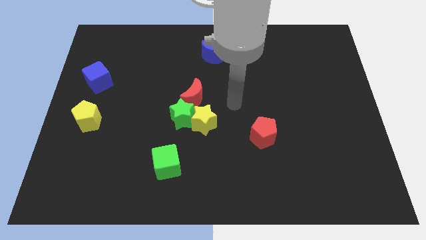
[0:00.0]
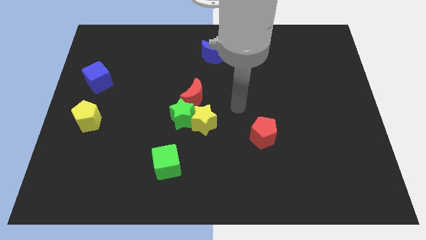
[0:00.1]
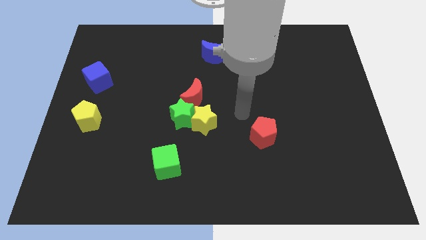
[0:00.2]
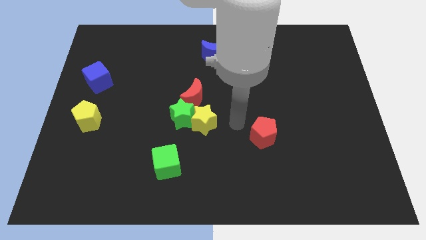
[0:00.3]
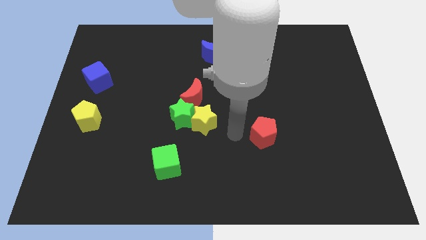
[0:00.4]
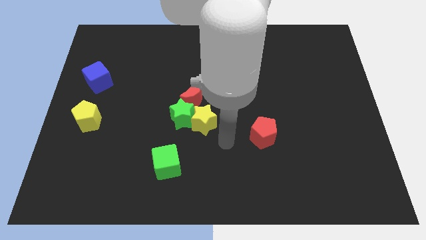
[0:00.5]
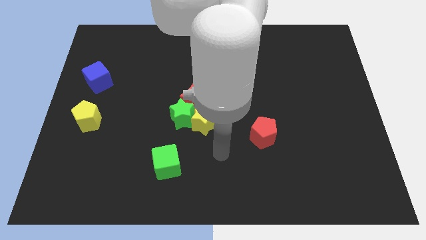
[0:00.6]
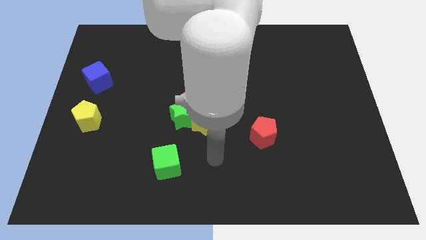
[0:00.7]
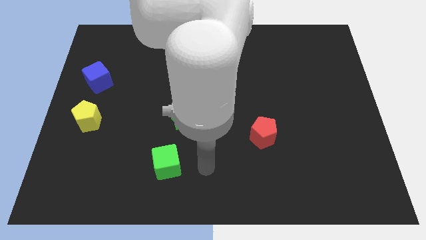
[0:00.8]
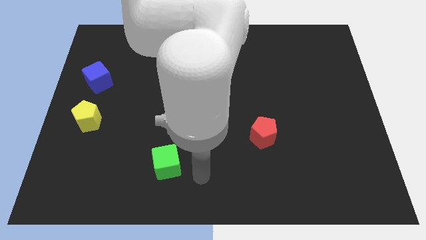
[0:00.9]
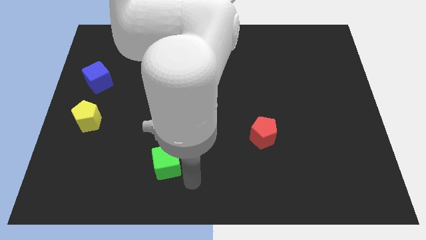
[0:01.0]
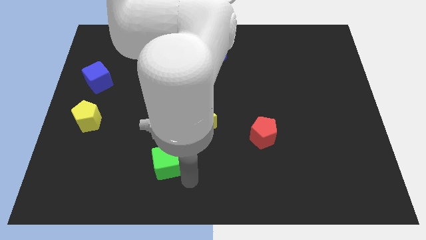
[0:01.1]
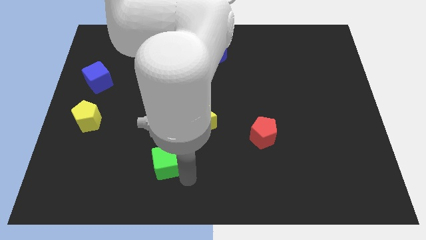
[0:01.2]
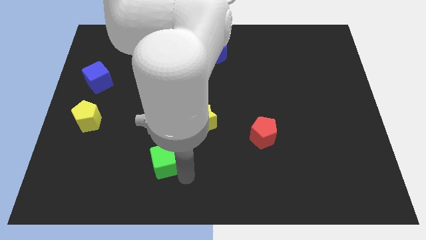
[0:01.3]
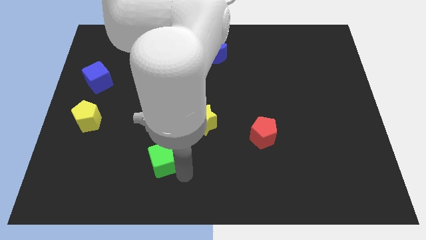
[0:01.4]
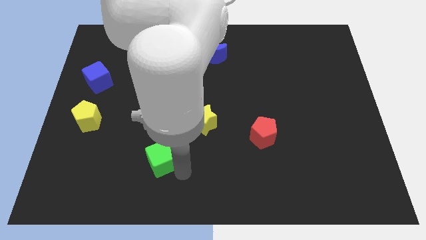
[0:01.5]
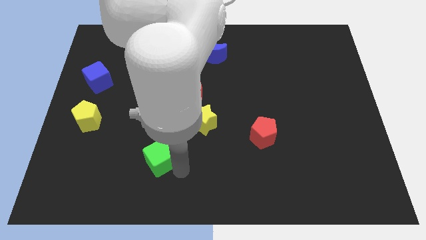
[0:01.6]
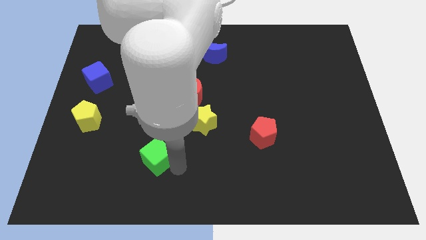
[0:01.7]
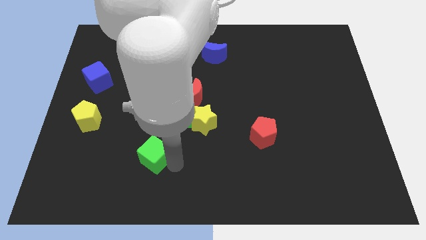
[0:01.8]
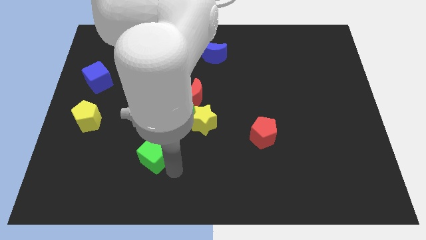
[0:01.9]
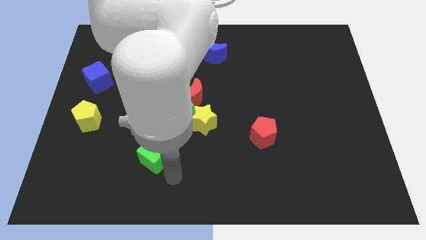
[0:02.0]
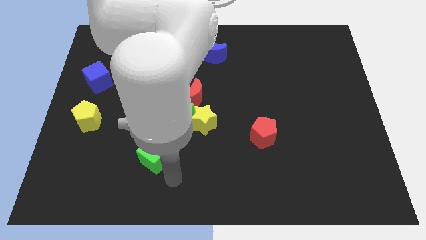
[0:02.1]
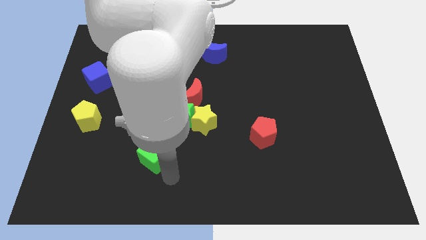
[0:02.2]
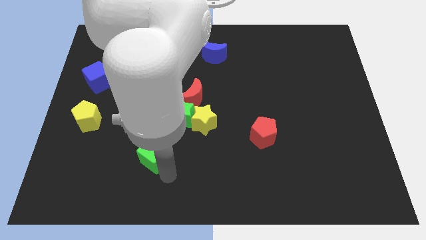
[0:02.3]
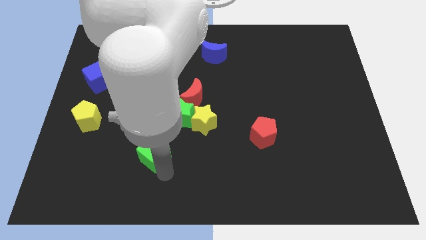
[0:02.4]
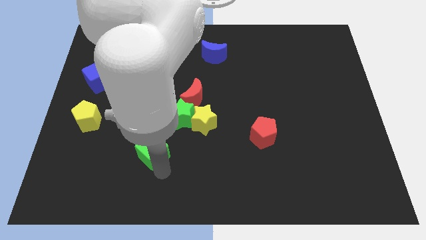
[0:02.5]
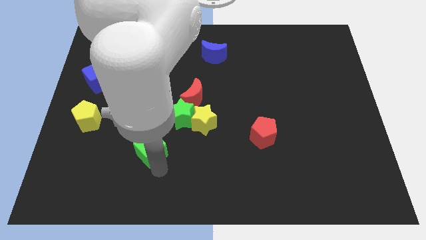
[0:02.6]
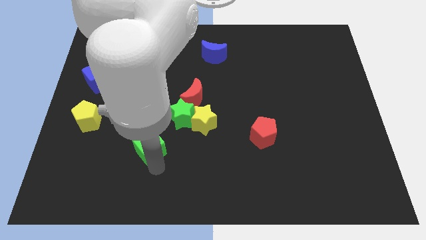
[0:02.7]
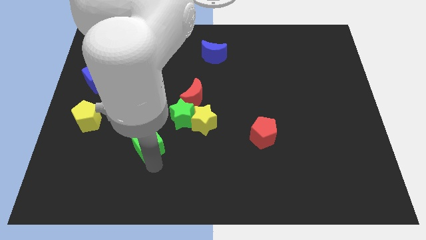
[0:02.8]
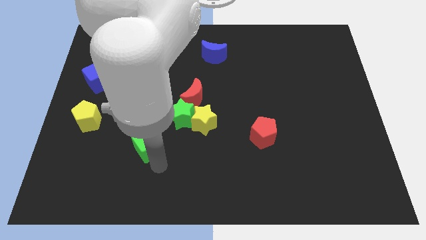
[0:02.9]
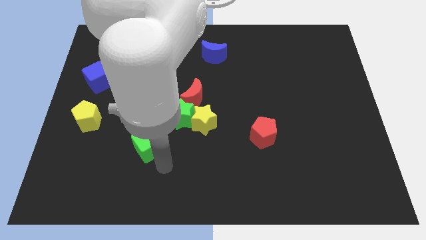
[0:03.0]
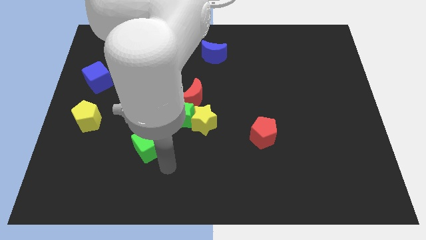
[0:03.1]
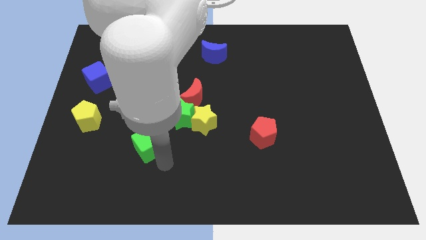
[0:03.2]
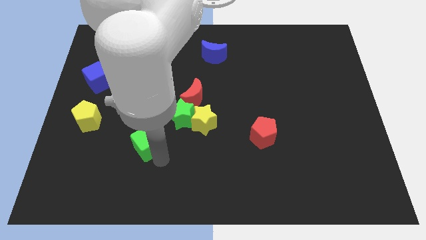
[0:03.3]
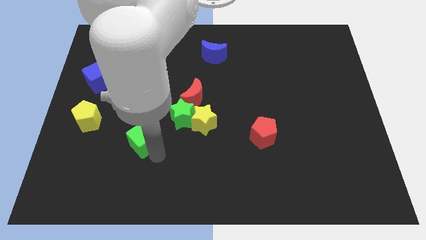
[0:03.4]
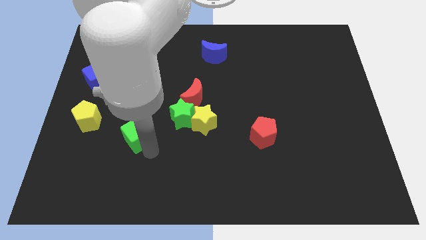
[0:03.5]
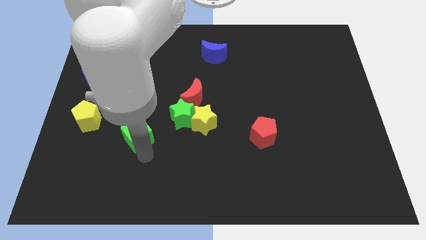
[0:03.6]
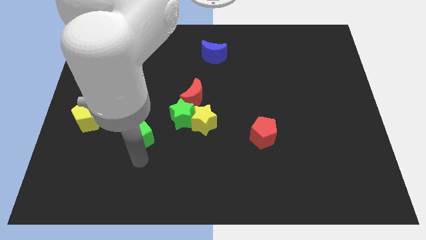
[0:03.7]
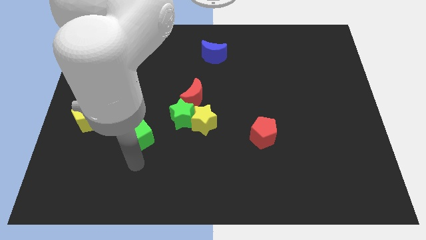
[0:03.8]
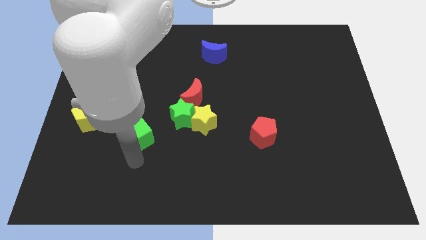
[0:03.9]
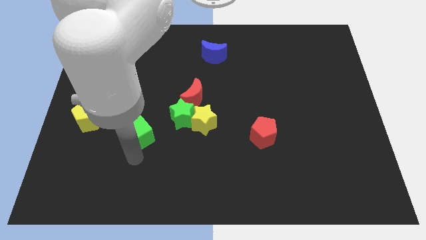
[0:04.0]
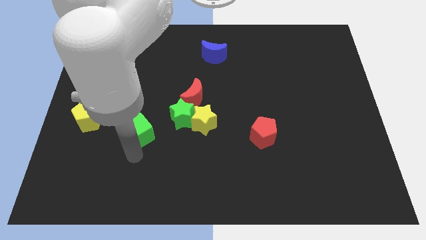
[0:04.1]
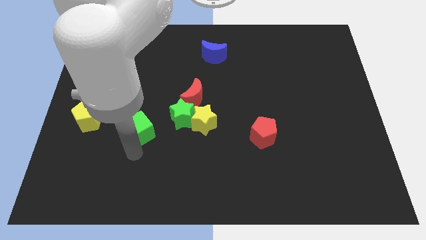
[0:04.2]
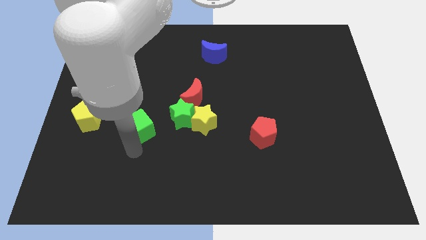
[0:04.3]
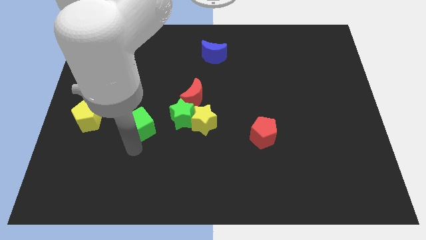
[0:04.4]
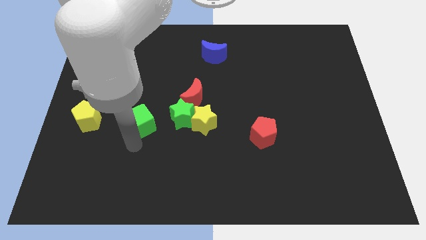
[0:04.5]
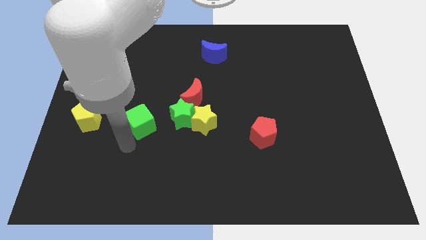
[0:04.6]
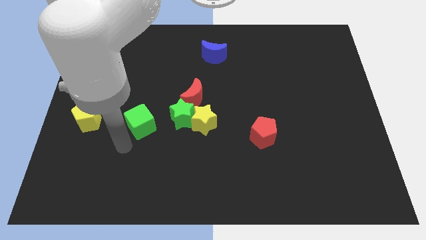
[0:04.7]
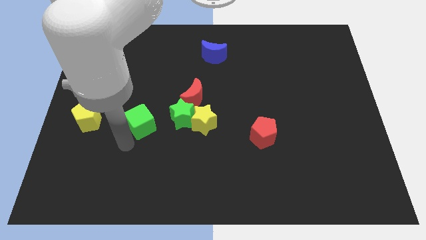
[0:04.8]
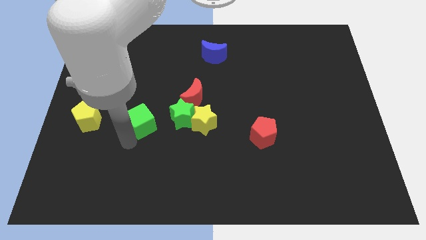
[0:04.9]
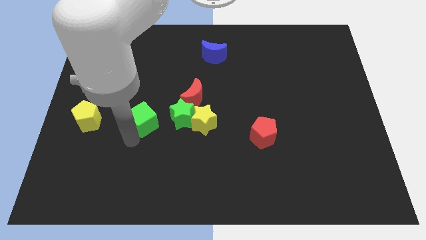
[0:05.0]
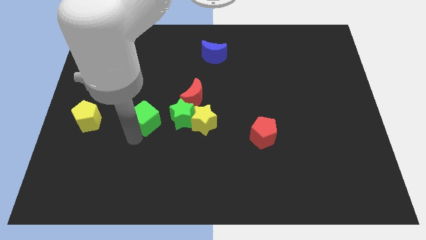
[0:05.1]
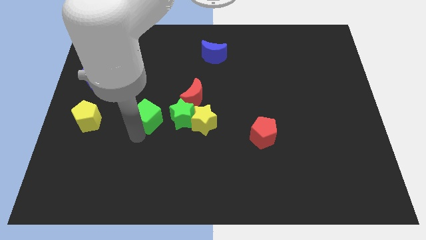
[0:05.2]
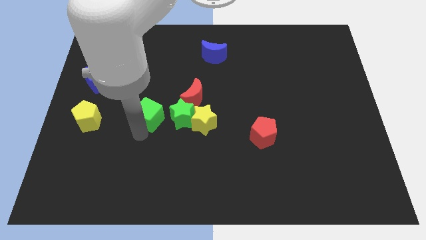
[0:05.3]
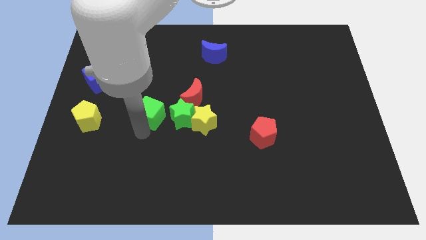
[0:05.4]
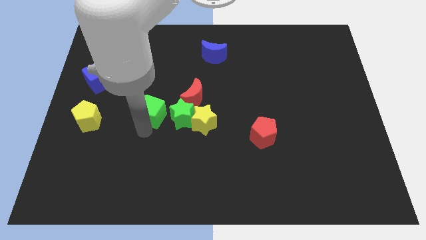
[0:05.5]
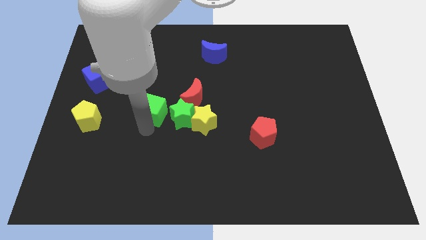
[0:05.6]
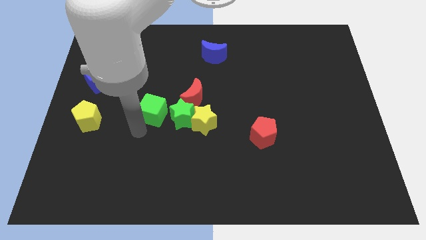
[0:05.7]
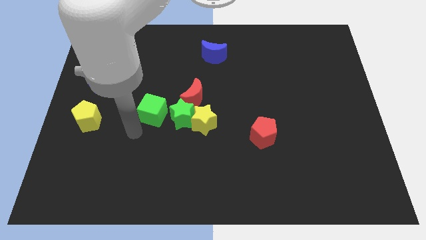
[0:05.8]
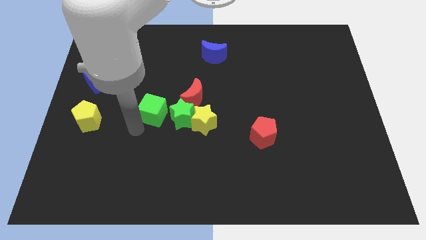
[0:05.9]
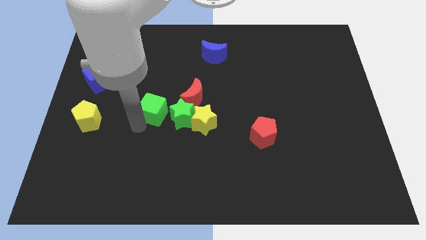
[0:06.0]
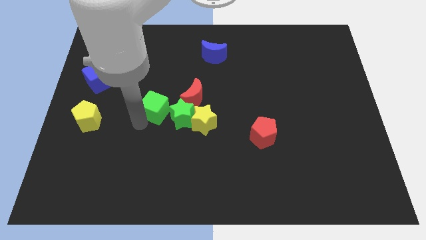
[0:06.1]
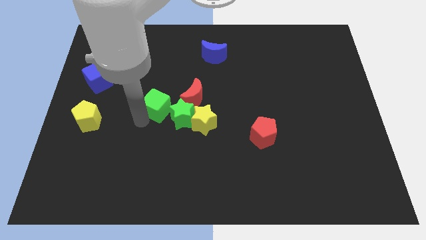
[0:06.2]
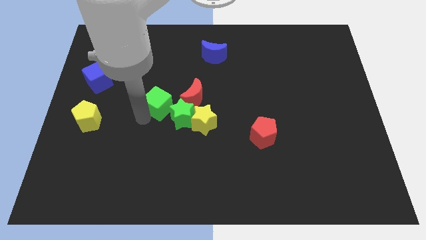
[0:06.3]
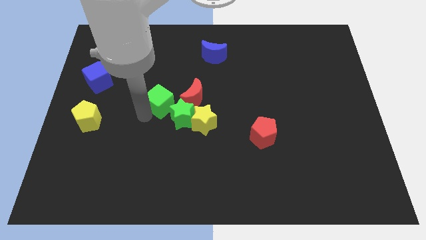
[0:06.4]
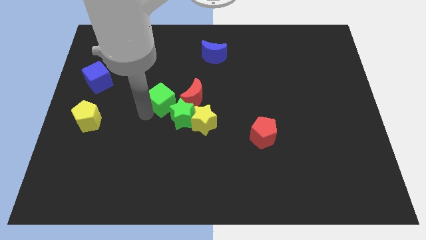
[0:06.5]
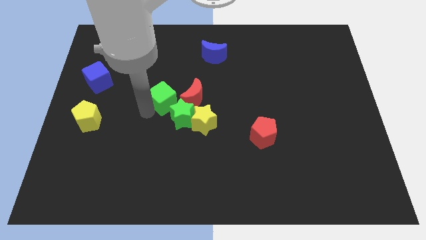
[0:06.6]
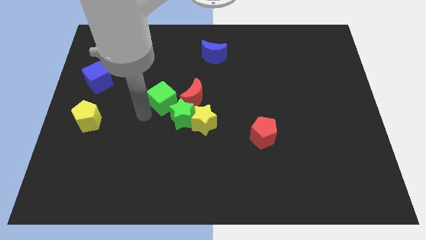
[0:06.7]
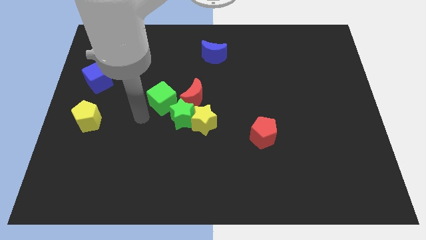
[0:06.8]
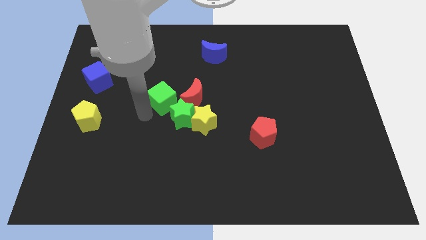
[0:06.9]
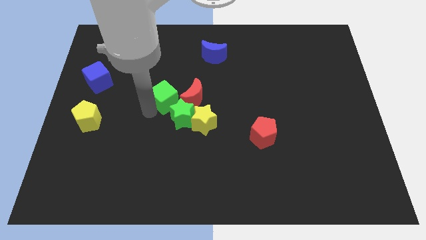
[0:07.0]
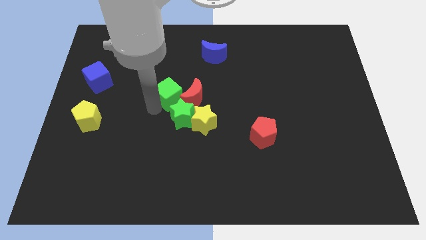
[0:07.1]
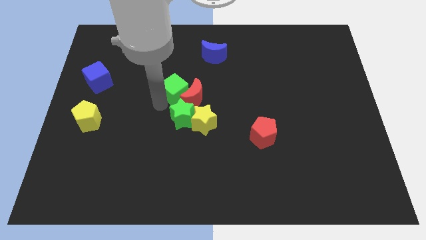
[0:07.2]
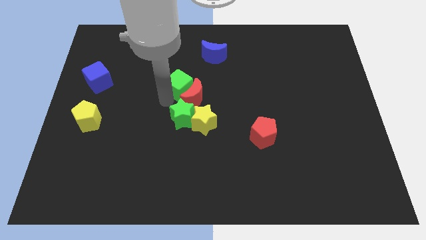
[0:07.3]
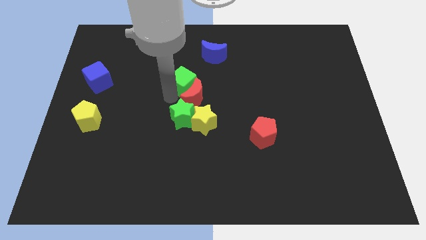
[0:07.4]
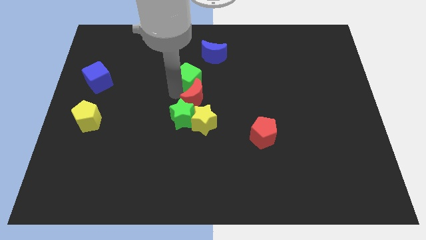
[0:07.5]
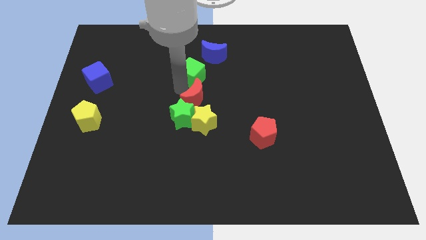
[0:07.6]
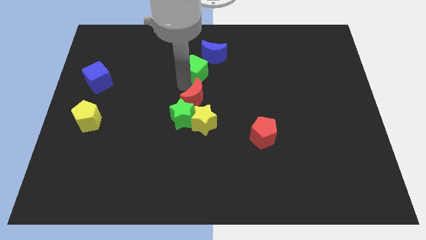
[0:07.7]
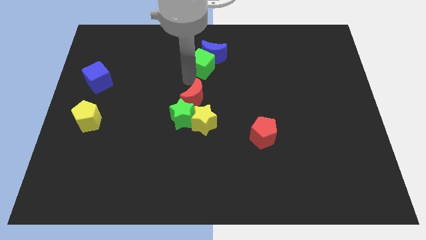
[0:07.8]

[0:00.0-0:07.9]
push the green cube to the blue moon
